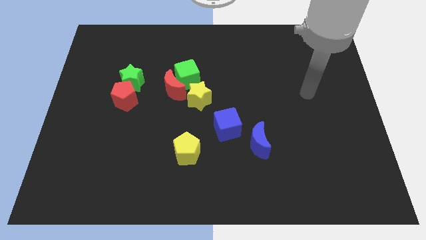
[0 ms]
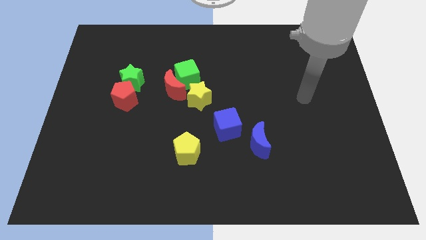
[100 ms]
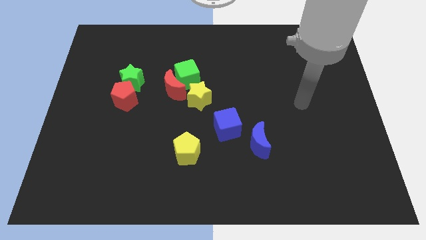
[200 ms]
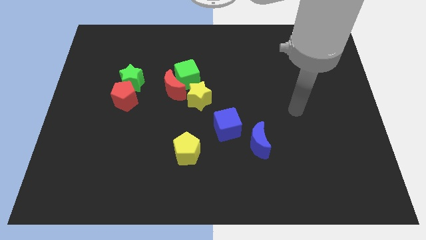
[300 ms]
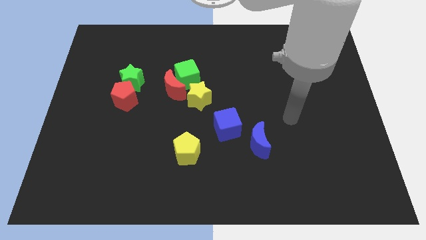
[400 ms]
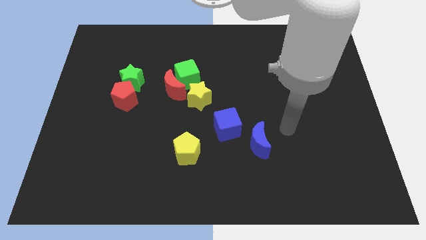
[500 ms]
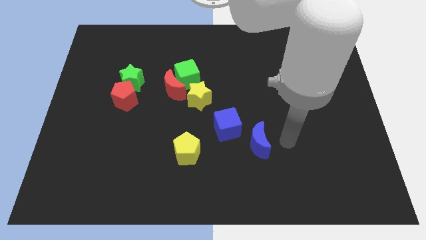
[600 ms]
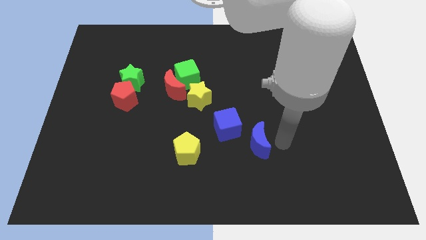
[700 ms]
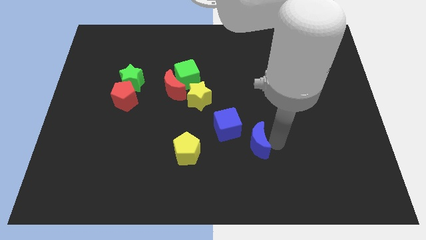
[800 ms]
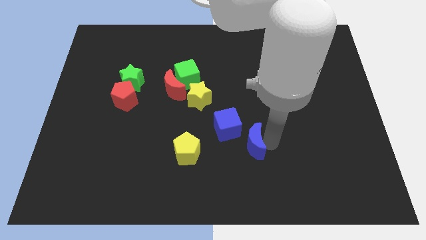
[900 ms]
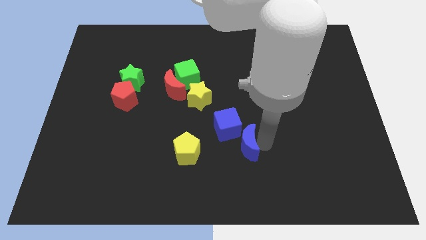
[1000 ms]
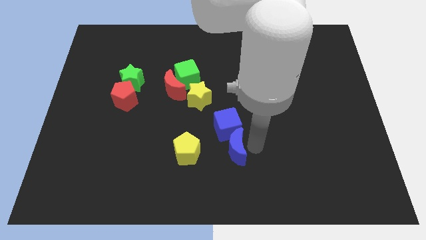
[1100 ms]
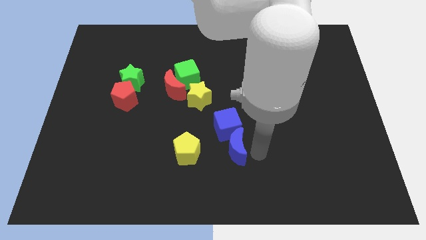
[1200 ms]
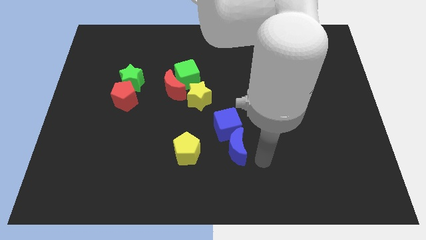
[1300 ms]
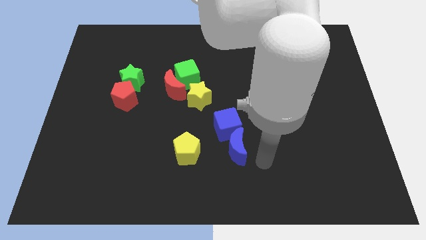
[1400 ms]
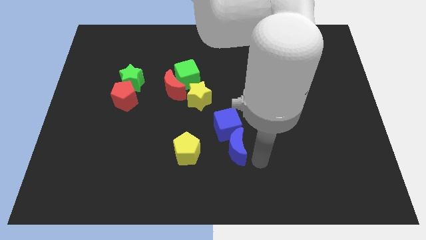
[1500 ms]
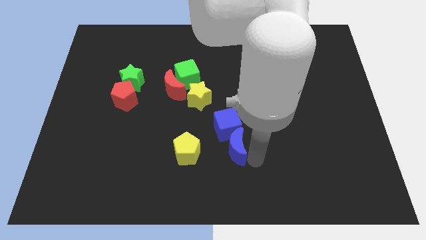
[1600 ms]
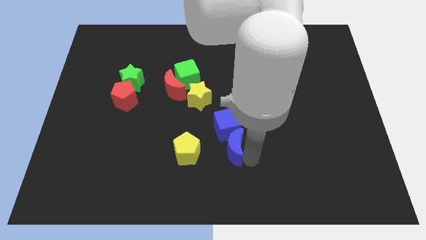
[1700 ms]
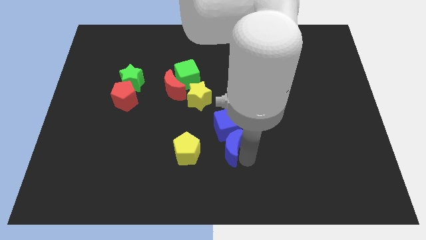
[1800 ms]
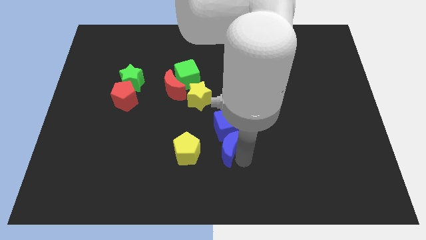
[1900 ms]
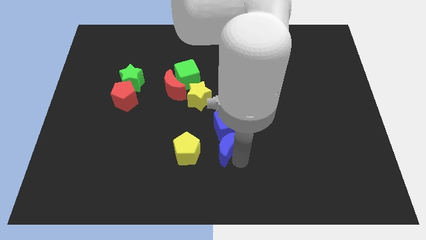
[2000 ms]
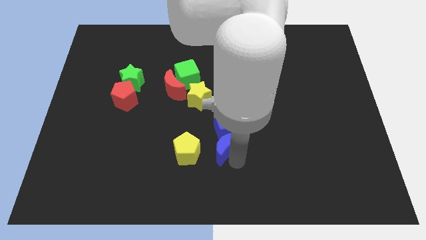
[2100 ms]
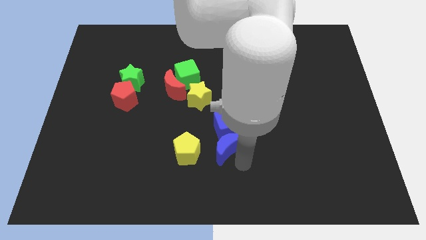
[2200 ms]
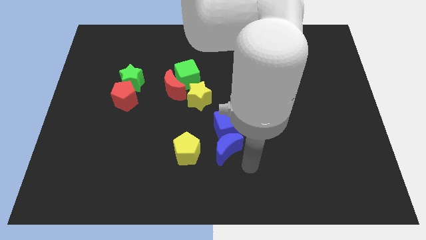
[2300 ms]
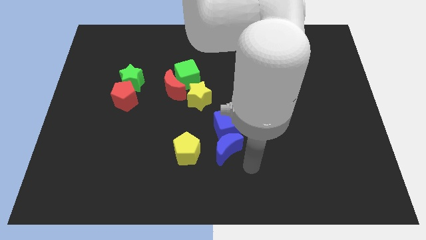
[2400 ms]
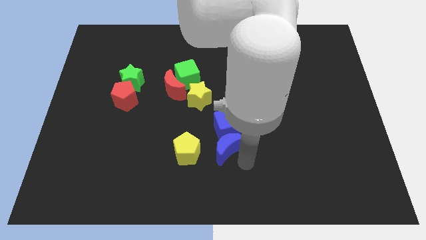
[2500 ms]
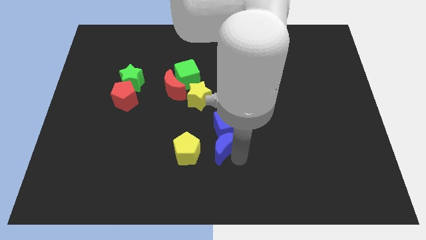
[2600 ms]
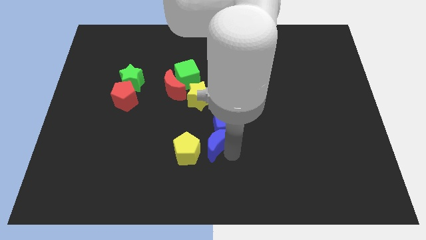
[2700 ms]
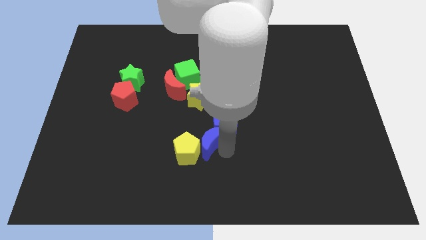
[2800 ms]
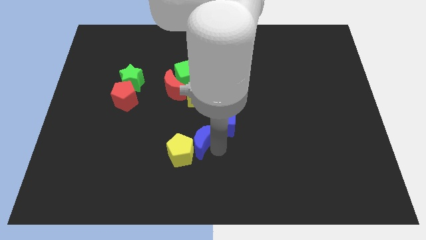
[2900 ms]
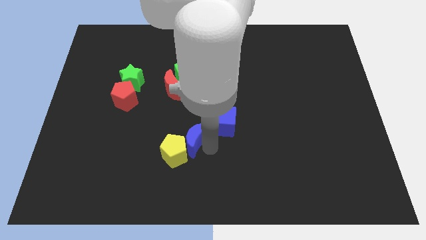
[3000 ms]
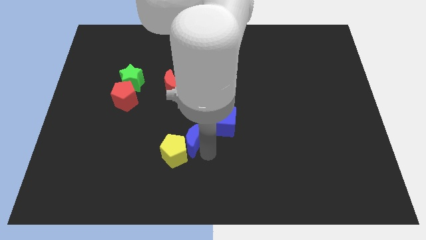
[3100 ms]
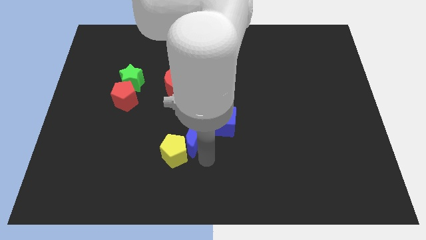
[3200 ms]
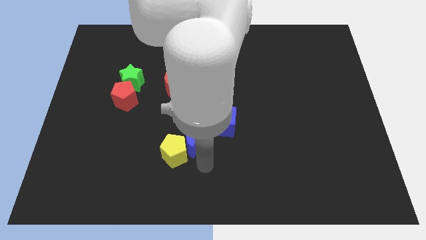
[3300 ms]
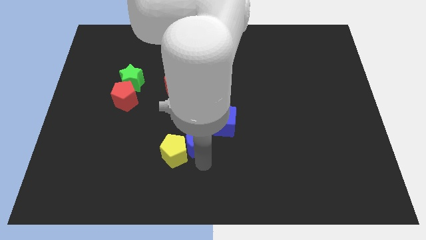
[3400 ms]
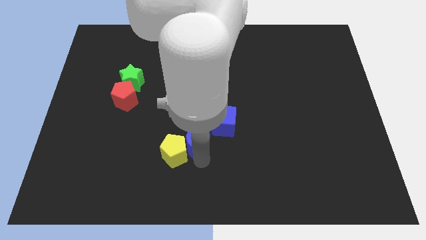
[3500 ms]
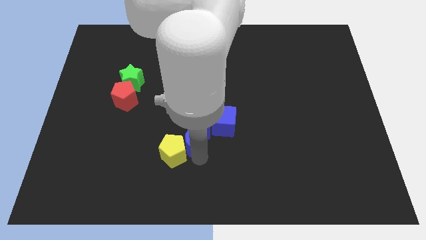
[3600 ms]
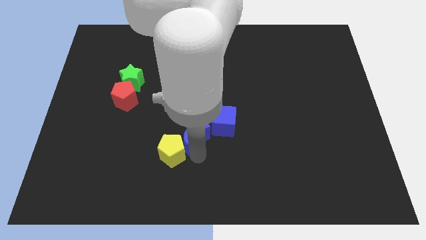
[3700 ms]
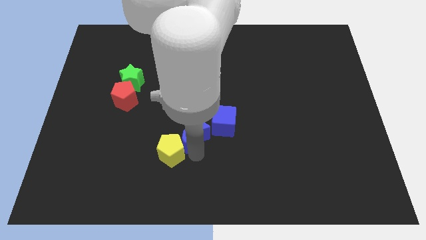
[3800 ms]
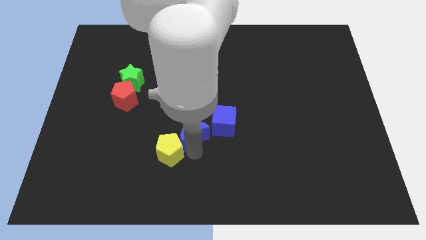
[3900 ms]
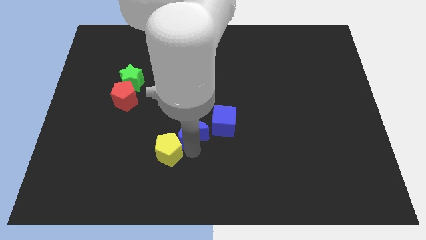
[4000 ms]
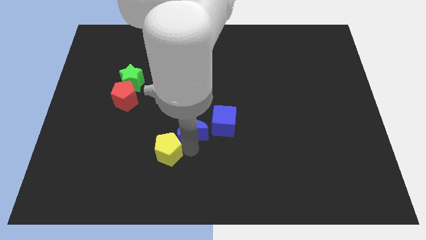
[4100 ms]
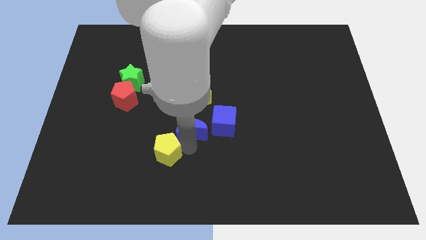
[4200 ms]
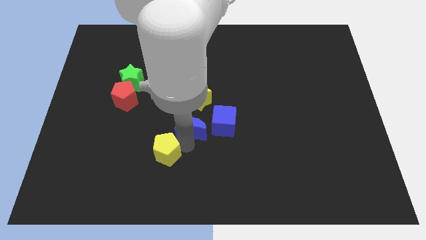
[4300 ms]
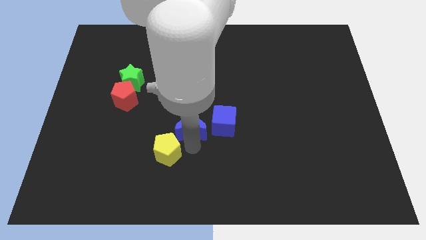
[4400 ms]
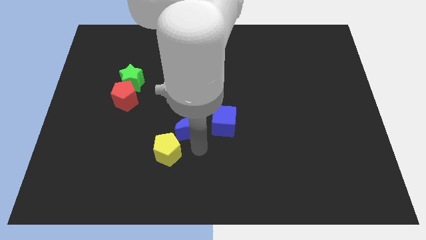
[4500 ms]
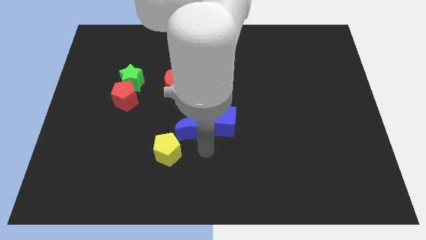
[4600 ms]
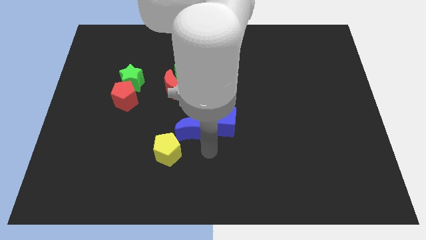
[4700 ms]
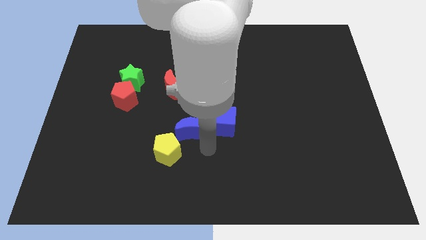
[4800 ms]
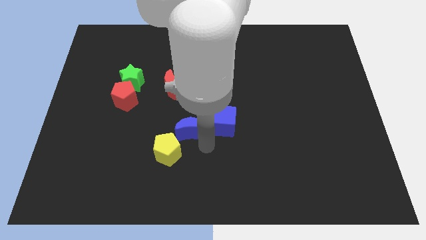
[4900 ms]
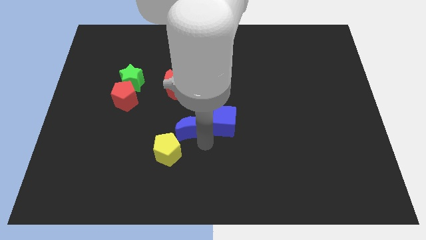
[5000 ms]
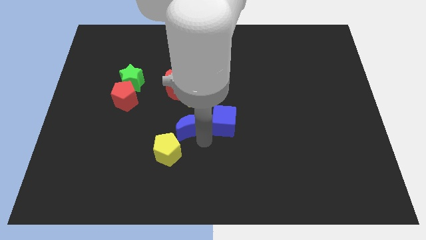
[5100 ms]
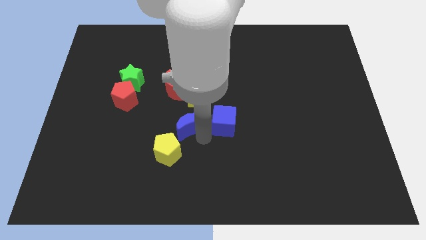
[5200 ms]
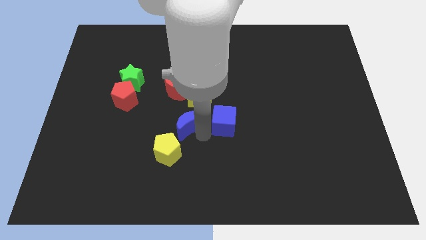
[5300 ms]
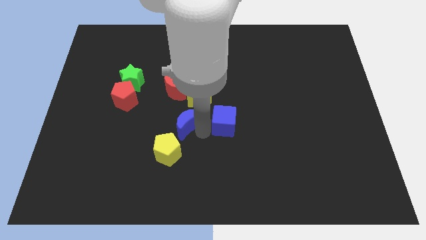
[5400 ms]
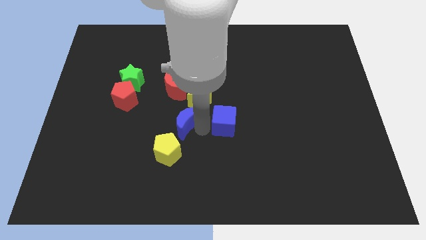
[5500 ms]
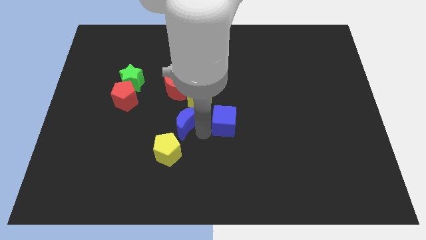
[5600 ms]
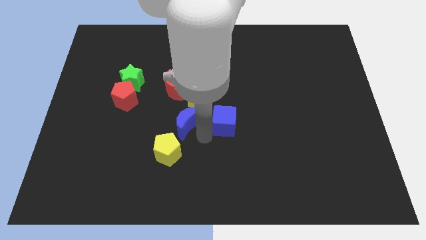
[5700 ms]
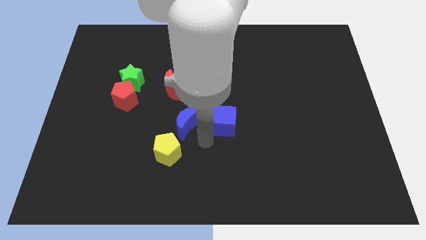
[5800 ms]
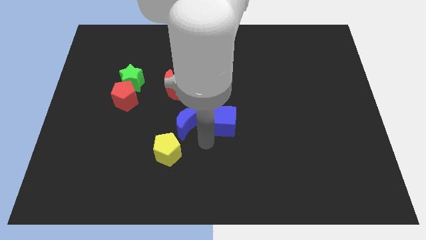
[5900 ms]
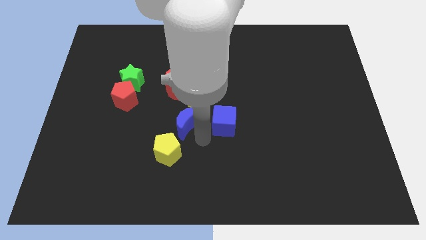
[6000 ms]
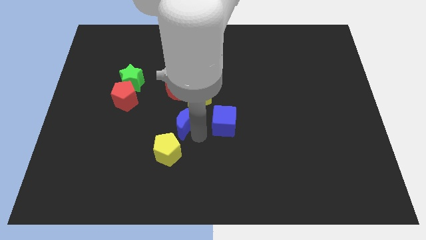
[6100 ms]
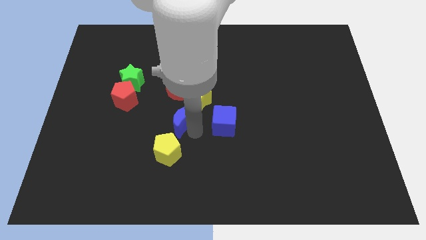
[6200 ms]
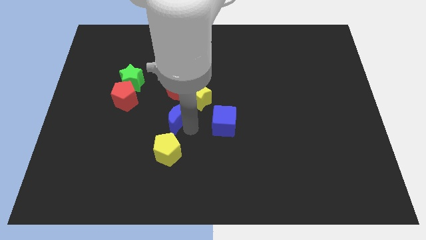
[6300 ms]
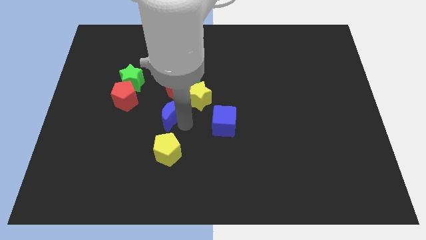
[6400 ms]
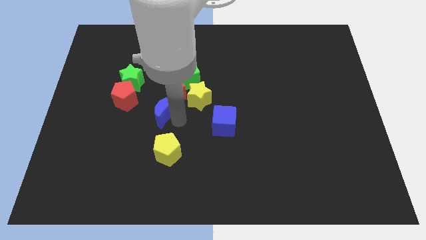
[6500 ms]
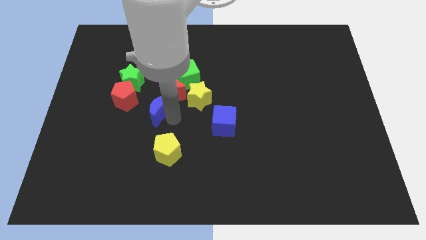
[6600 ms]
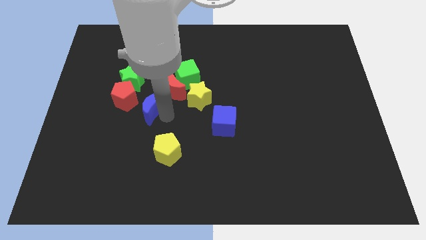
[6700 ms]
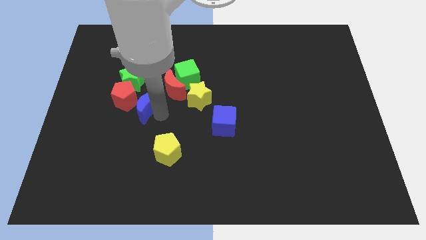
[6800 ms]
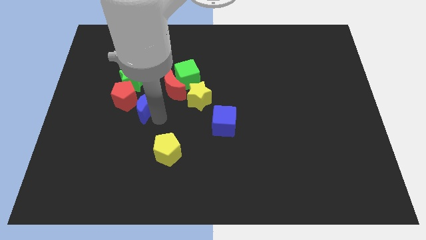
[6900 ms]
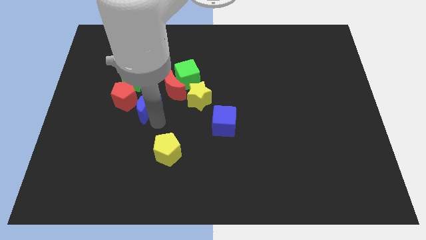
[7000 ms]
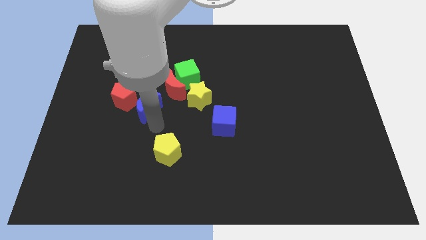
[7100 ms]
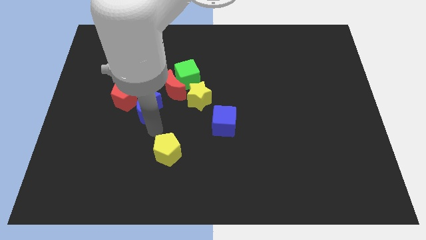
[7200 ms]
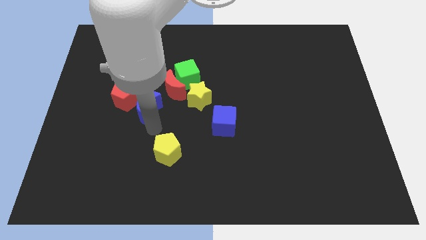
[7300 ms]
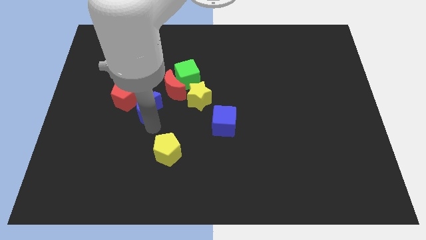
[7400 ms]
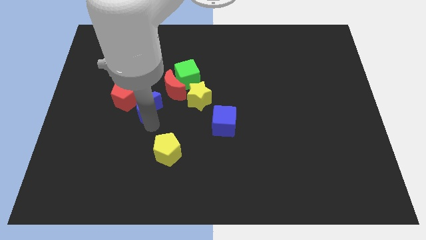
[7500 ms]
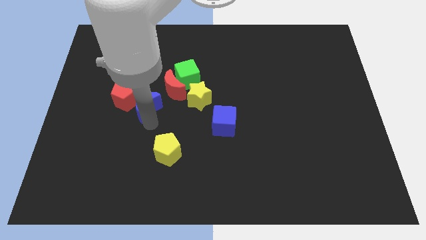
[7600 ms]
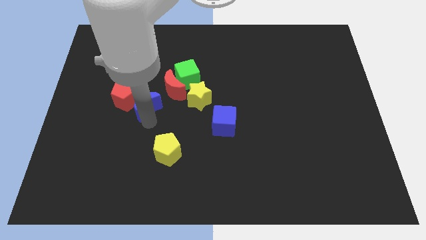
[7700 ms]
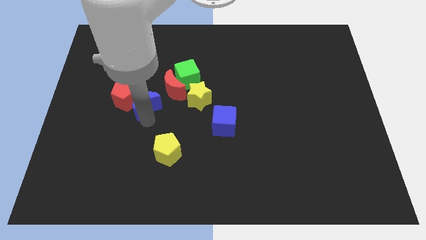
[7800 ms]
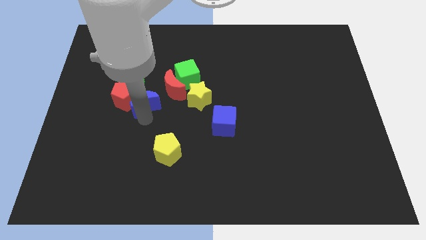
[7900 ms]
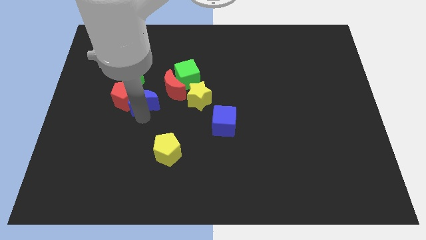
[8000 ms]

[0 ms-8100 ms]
slide the blue moon to the top right side of the red pentagon
